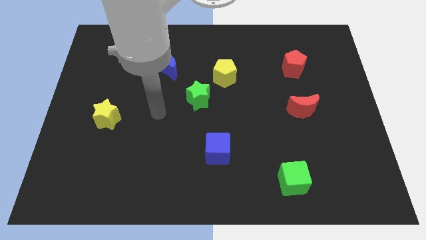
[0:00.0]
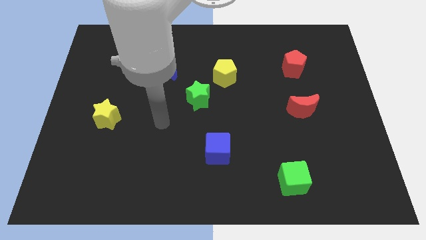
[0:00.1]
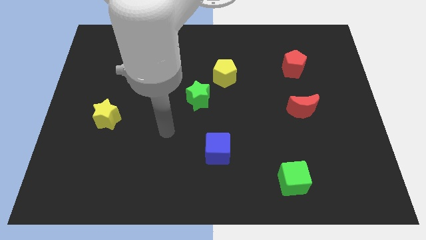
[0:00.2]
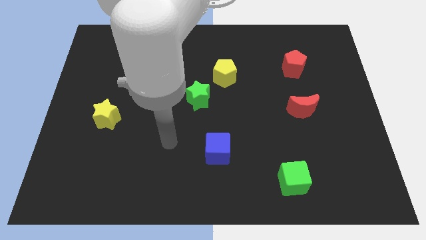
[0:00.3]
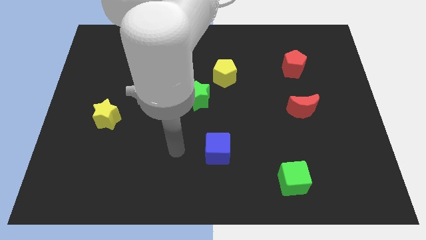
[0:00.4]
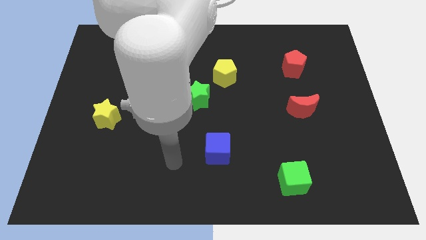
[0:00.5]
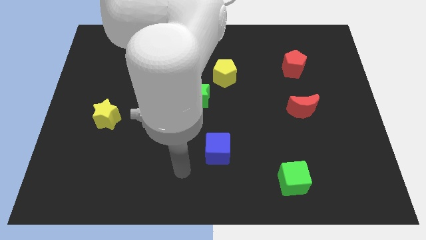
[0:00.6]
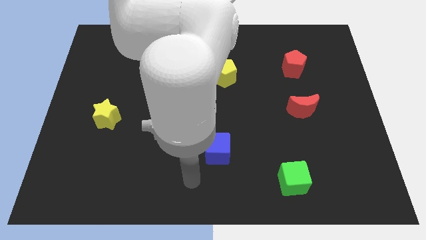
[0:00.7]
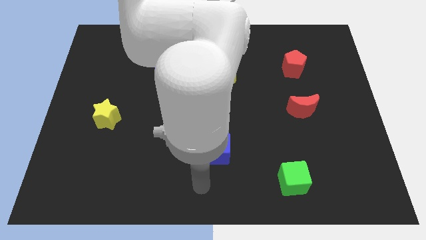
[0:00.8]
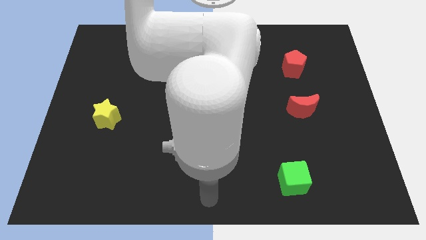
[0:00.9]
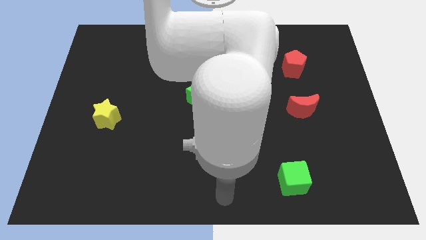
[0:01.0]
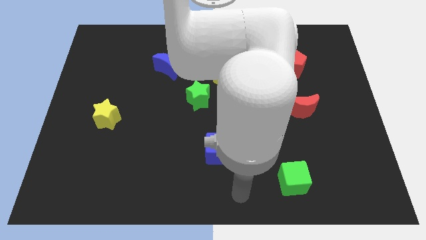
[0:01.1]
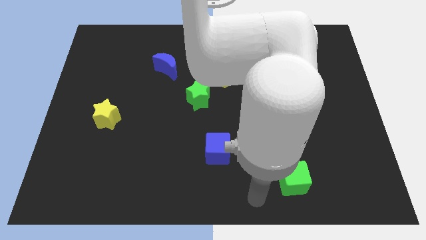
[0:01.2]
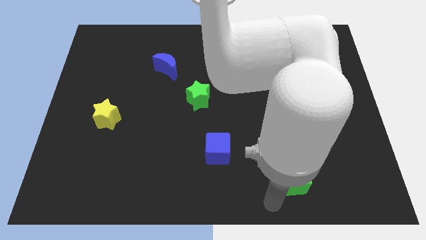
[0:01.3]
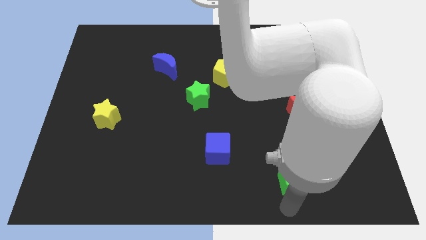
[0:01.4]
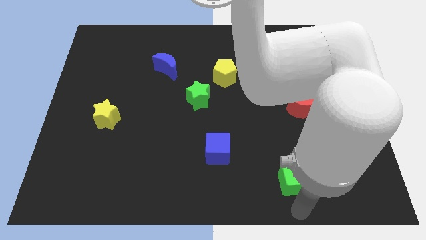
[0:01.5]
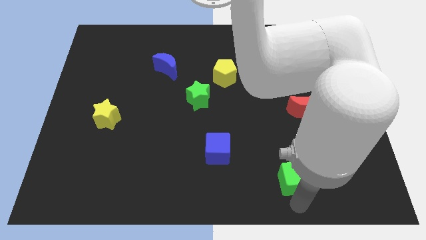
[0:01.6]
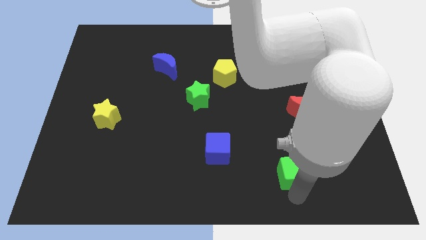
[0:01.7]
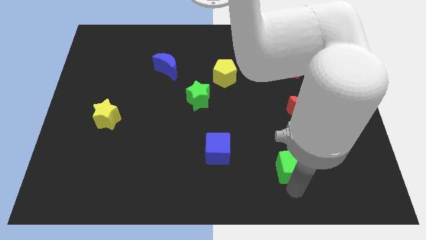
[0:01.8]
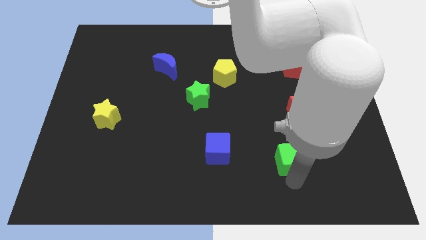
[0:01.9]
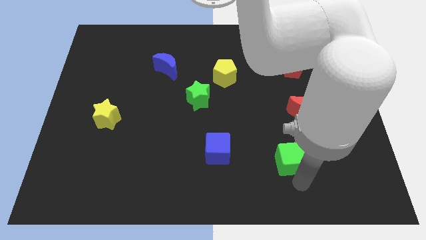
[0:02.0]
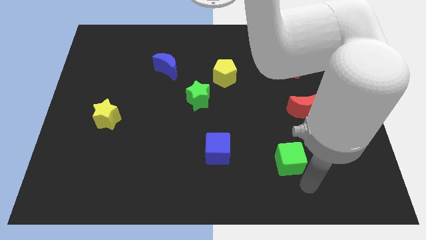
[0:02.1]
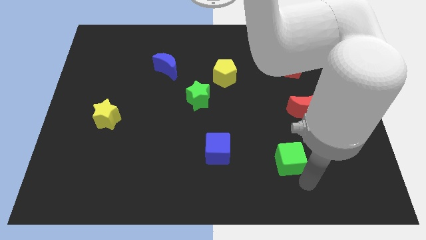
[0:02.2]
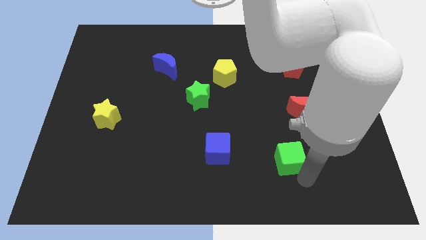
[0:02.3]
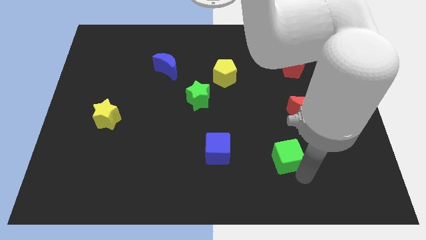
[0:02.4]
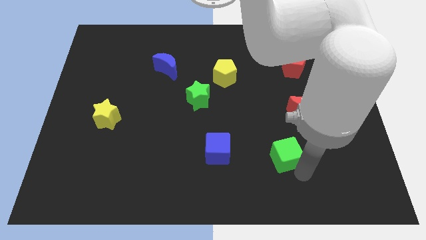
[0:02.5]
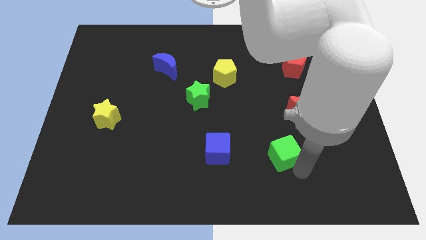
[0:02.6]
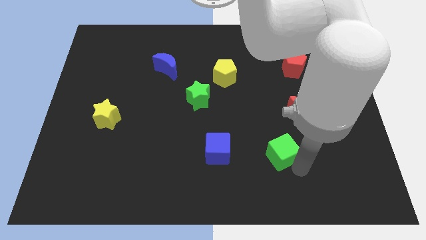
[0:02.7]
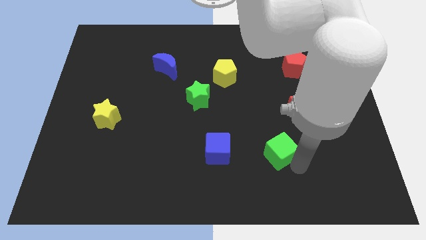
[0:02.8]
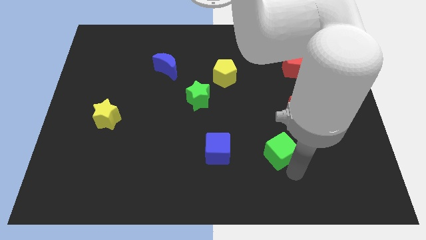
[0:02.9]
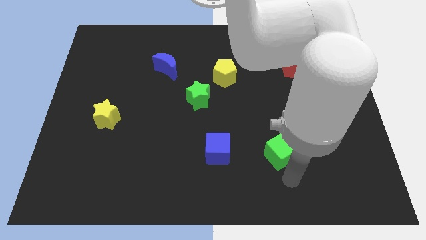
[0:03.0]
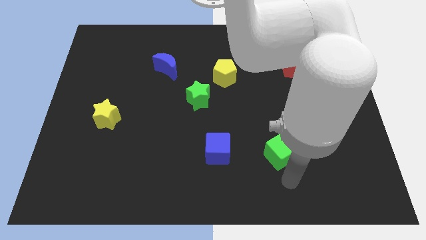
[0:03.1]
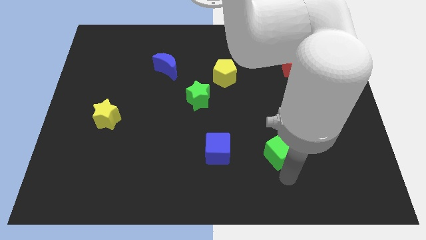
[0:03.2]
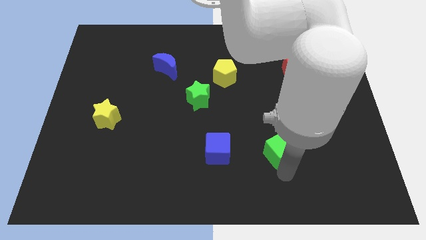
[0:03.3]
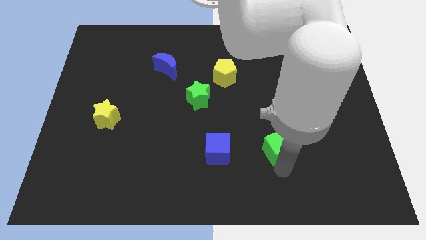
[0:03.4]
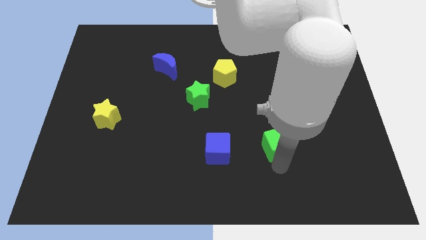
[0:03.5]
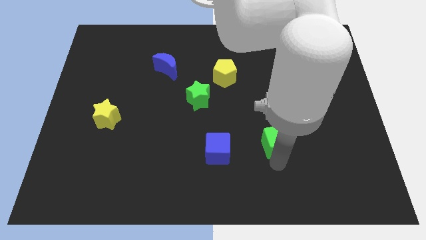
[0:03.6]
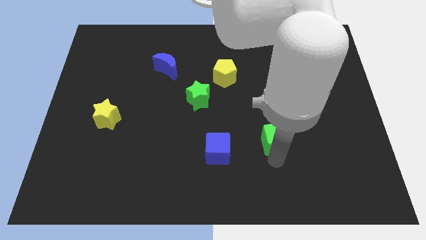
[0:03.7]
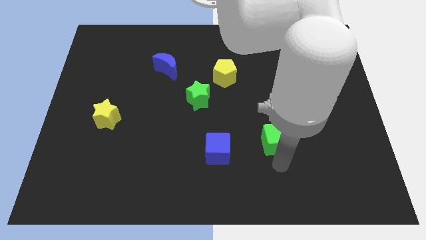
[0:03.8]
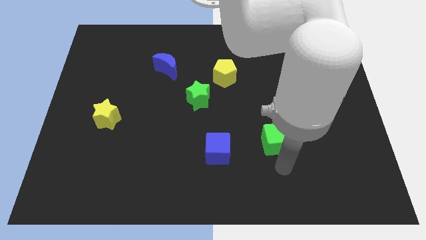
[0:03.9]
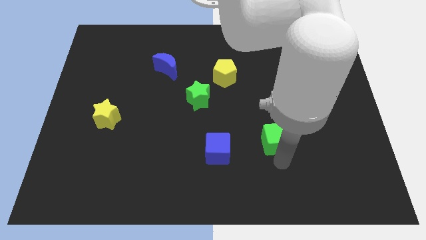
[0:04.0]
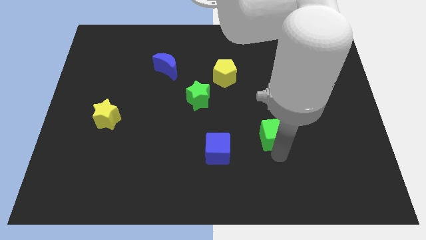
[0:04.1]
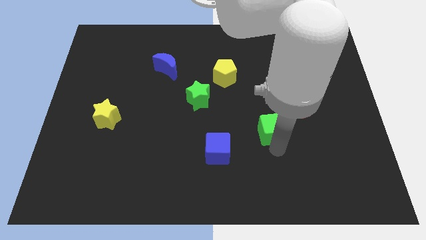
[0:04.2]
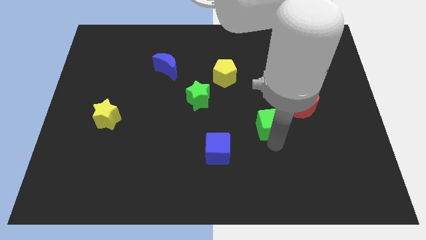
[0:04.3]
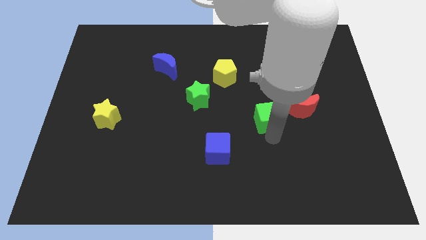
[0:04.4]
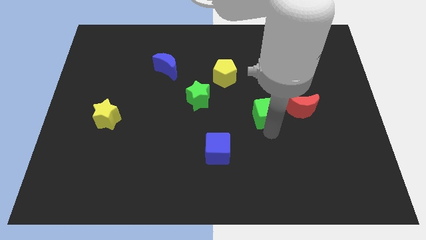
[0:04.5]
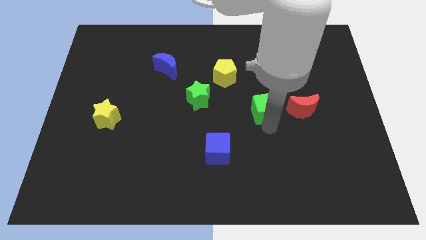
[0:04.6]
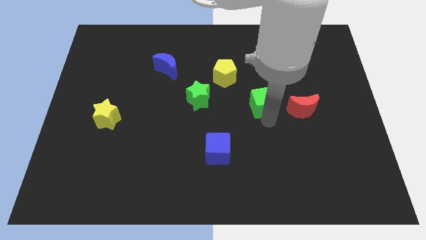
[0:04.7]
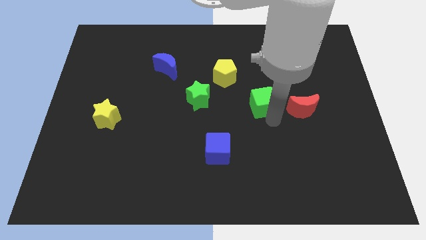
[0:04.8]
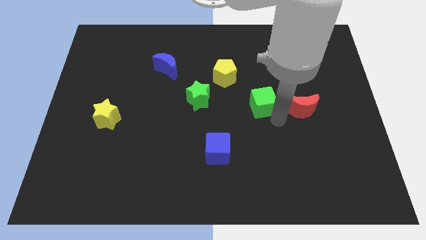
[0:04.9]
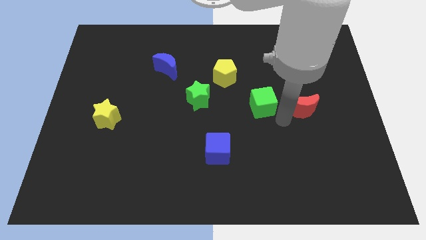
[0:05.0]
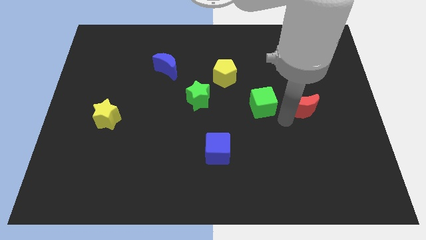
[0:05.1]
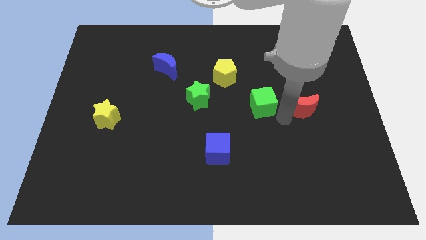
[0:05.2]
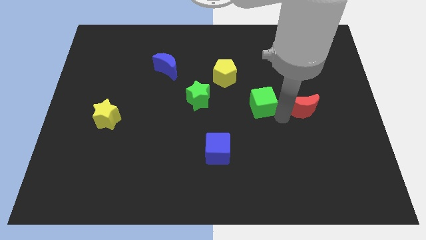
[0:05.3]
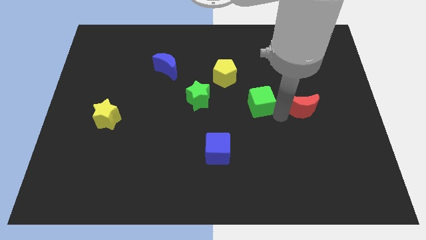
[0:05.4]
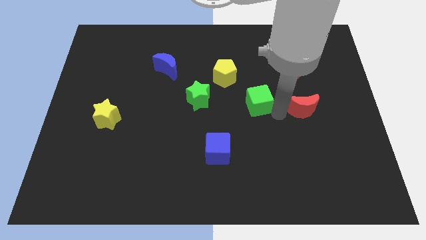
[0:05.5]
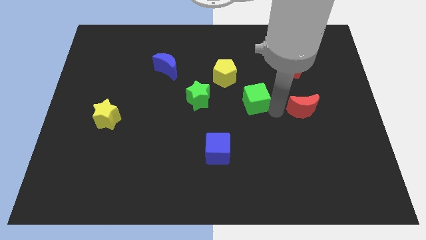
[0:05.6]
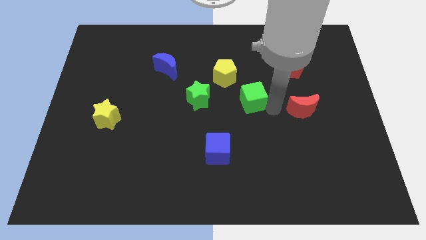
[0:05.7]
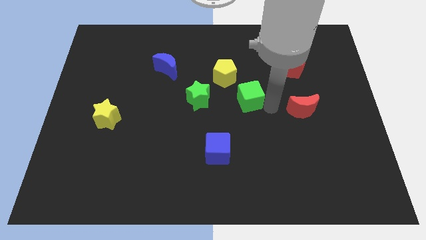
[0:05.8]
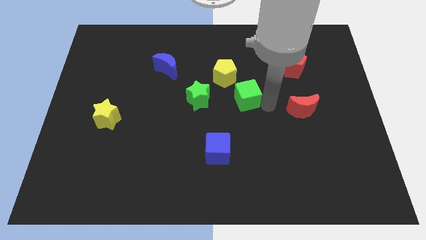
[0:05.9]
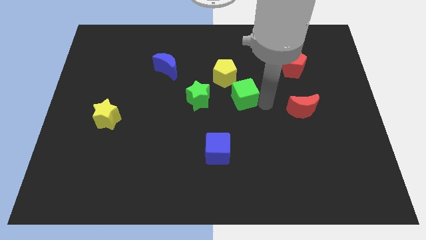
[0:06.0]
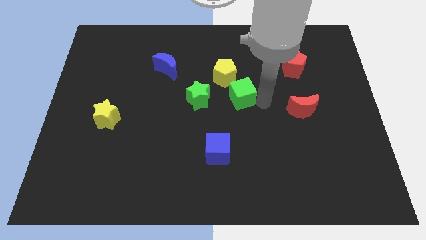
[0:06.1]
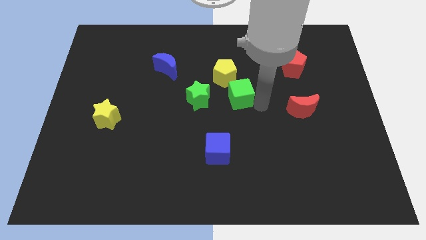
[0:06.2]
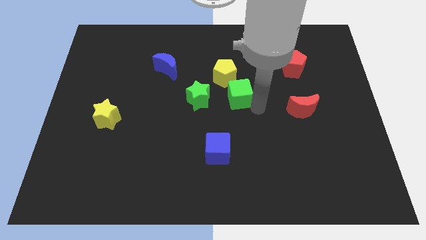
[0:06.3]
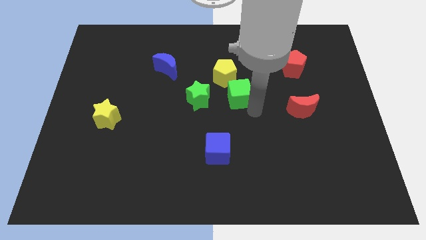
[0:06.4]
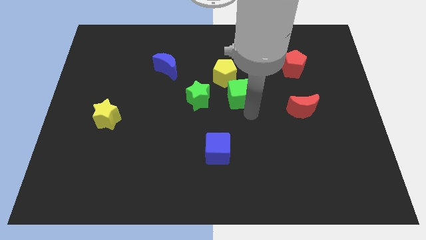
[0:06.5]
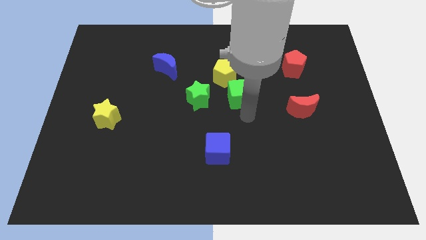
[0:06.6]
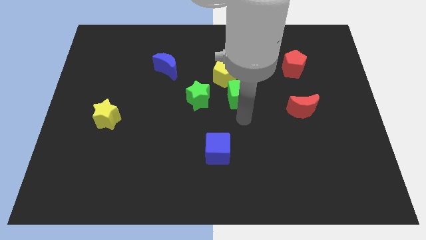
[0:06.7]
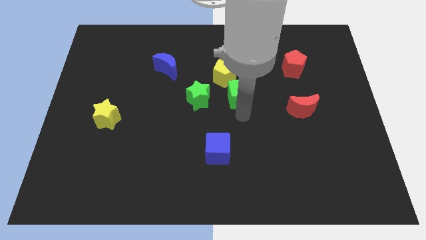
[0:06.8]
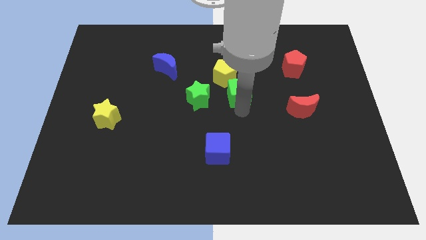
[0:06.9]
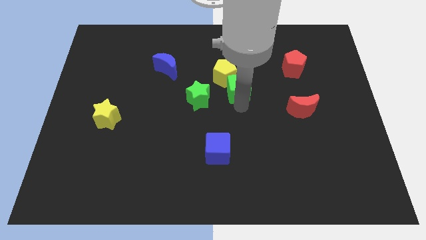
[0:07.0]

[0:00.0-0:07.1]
move the green cube close to the yellow pentagon

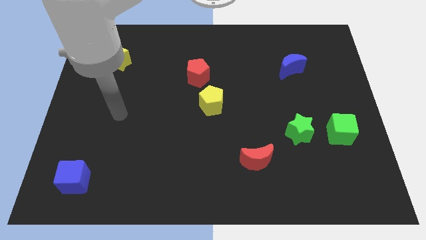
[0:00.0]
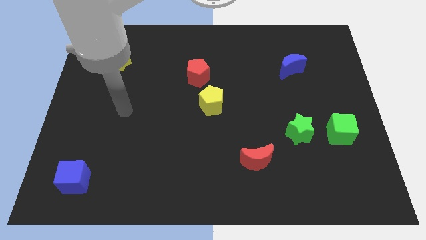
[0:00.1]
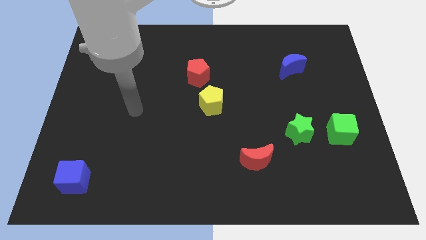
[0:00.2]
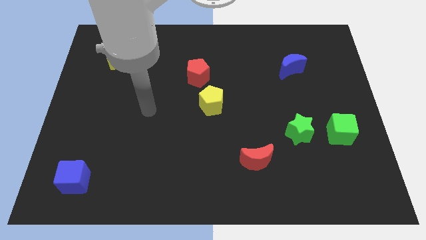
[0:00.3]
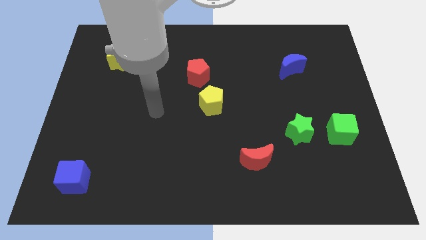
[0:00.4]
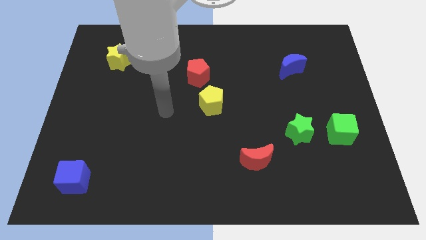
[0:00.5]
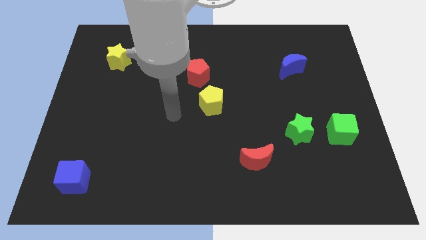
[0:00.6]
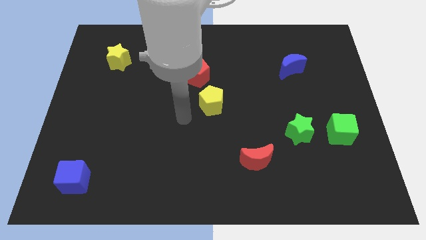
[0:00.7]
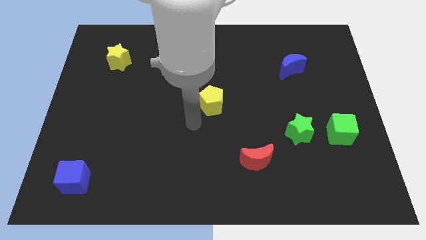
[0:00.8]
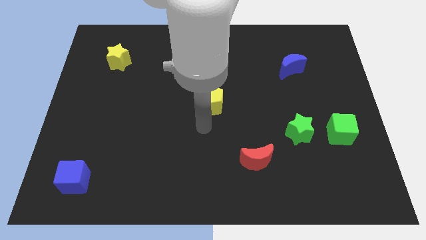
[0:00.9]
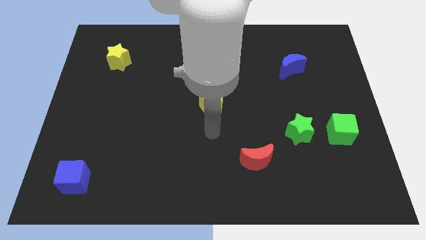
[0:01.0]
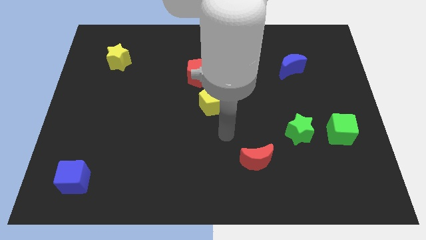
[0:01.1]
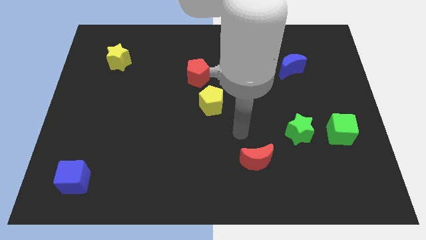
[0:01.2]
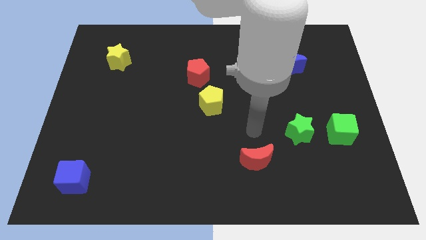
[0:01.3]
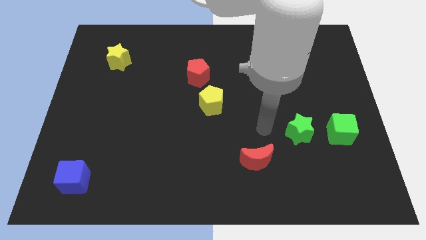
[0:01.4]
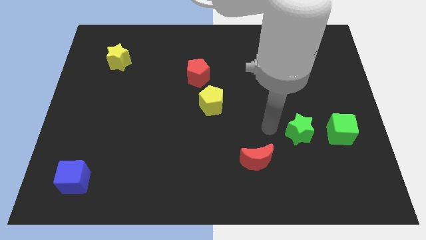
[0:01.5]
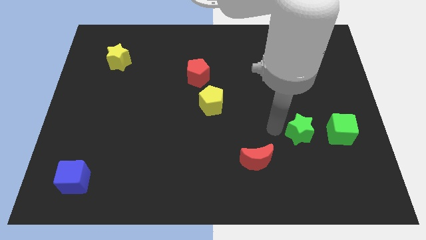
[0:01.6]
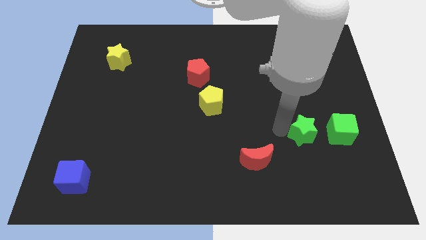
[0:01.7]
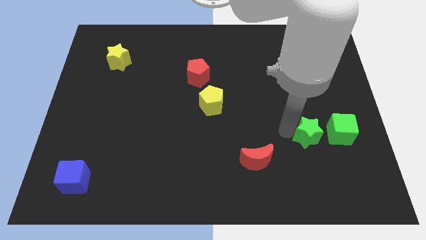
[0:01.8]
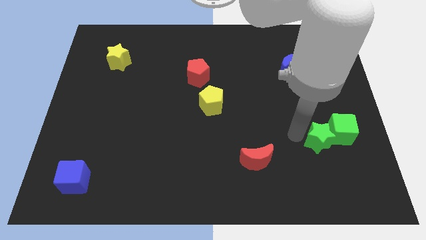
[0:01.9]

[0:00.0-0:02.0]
move the green star close to the green cube
